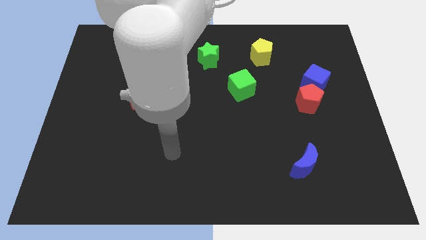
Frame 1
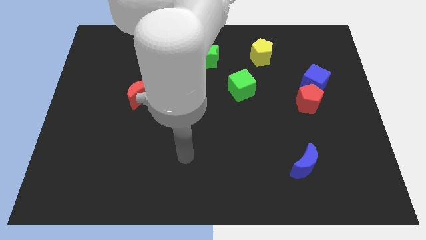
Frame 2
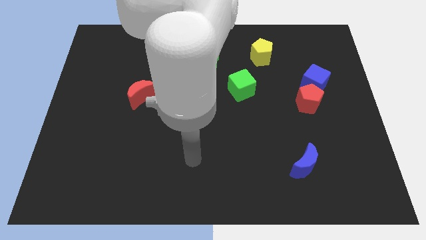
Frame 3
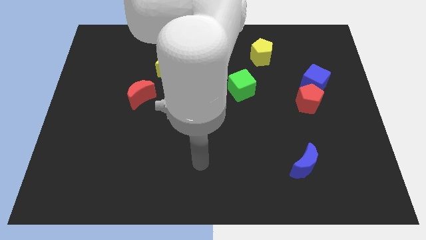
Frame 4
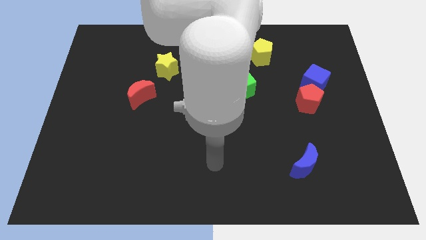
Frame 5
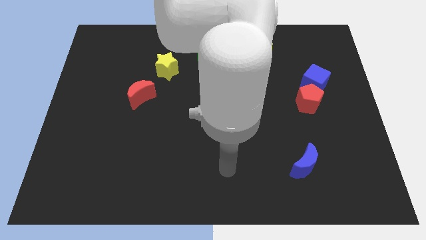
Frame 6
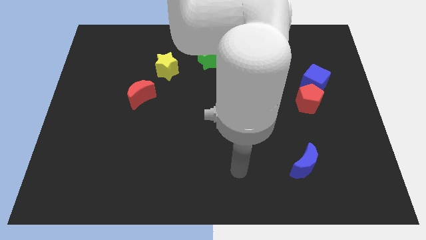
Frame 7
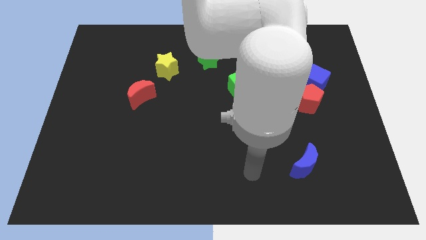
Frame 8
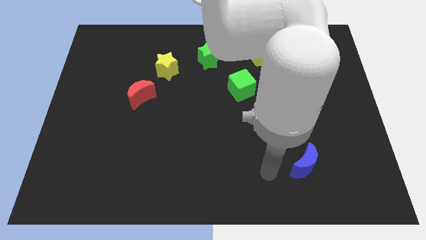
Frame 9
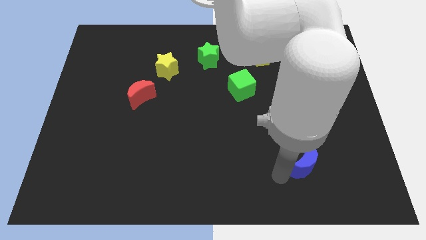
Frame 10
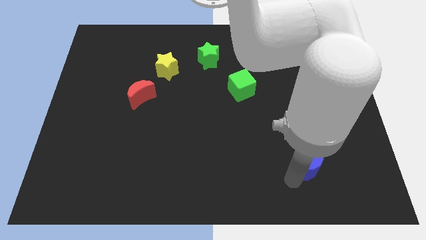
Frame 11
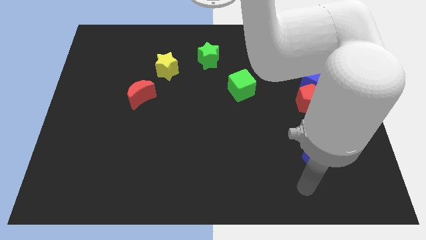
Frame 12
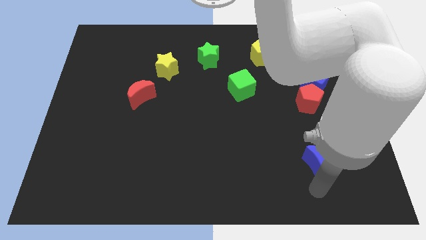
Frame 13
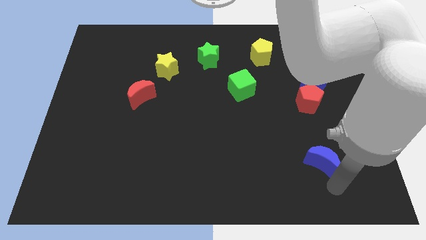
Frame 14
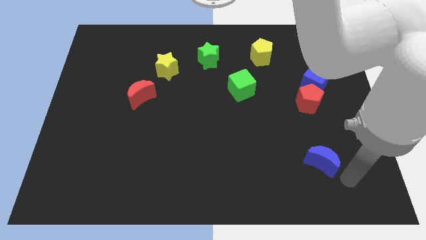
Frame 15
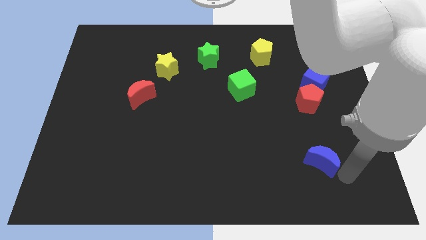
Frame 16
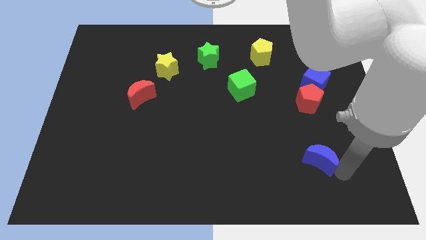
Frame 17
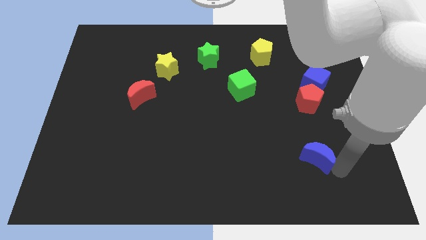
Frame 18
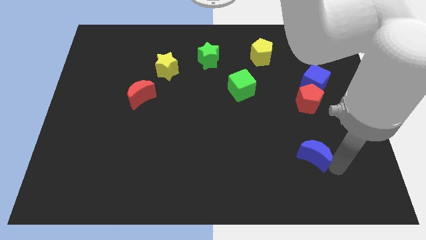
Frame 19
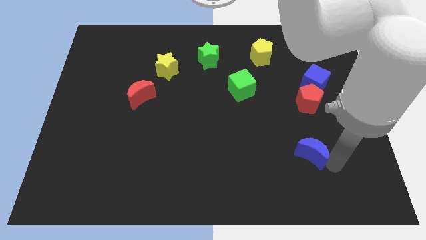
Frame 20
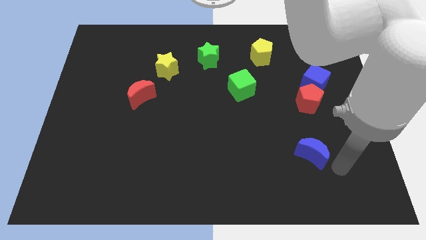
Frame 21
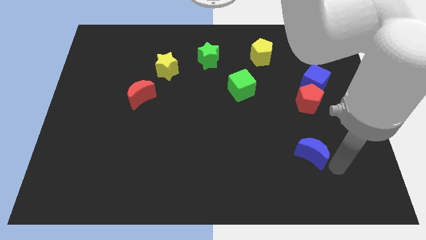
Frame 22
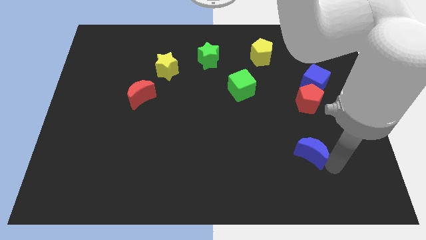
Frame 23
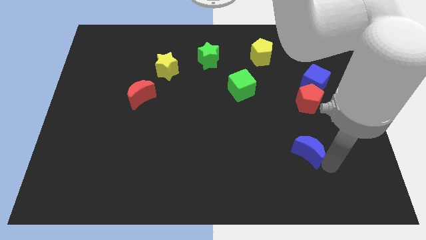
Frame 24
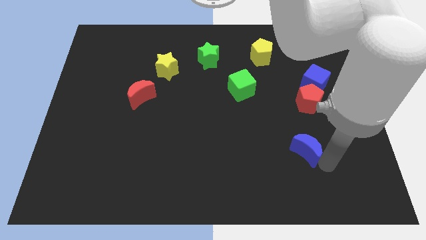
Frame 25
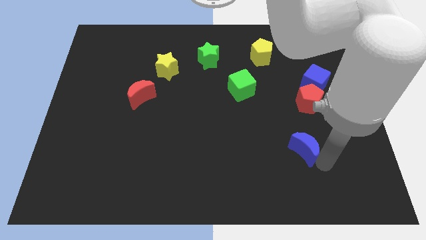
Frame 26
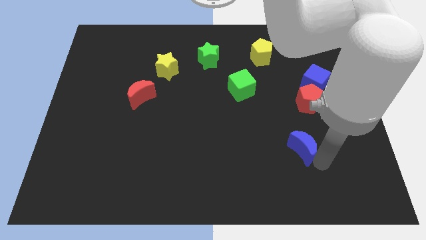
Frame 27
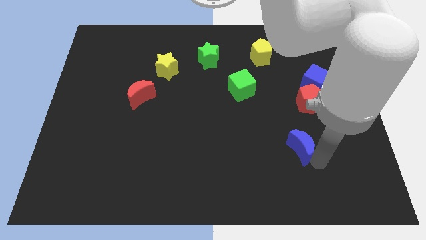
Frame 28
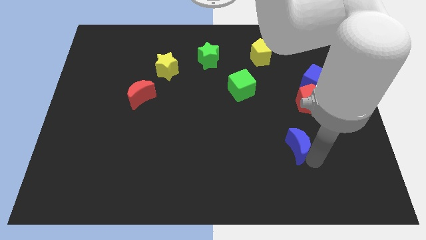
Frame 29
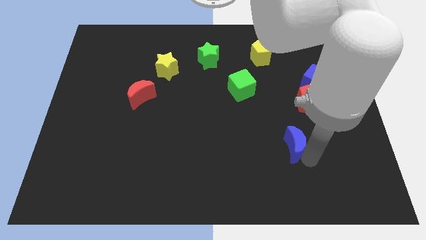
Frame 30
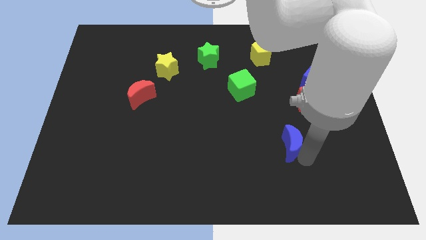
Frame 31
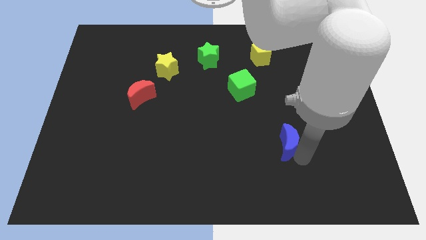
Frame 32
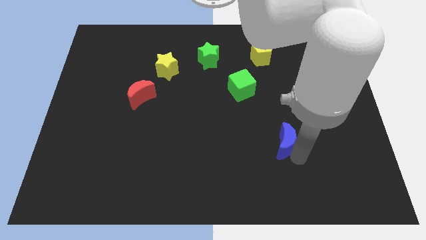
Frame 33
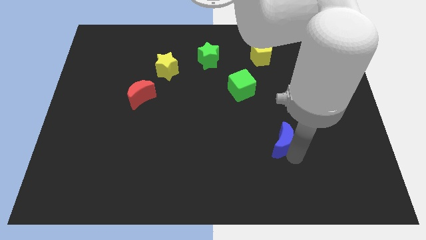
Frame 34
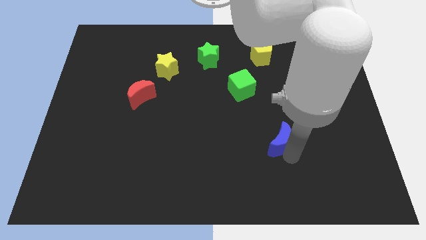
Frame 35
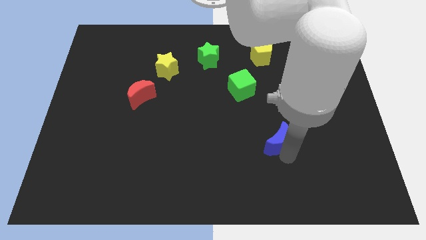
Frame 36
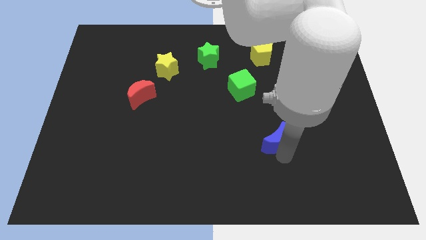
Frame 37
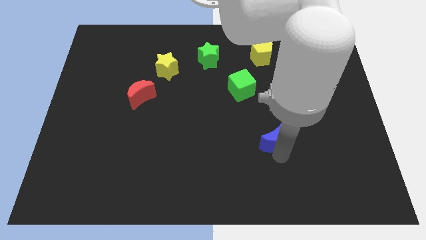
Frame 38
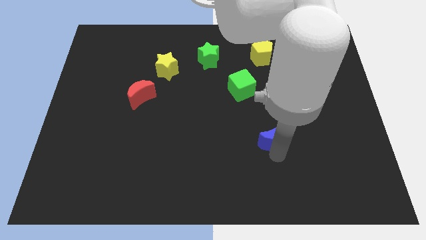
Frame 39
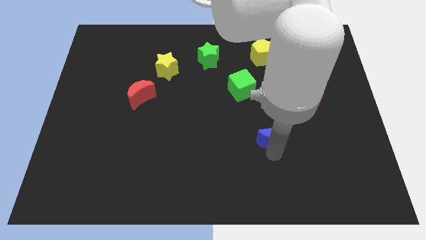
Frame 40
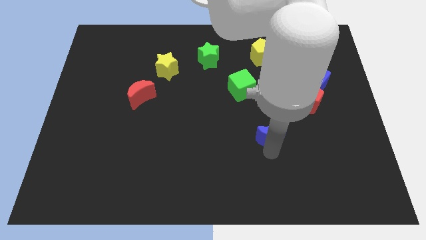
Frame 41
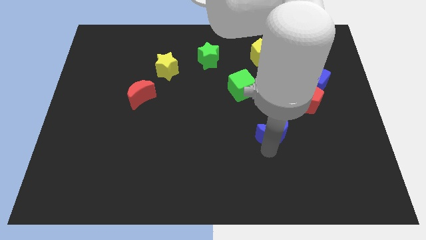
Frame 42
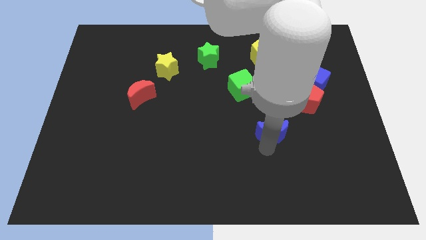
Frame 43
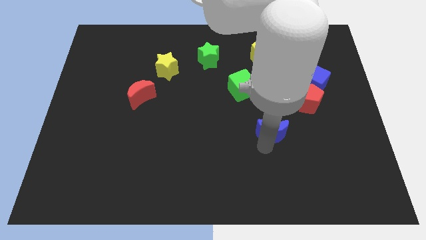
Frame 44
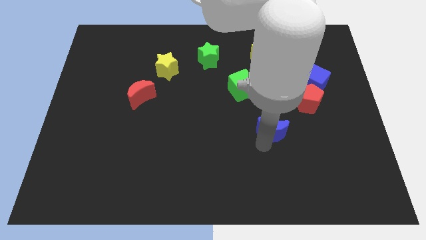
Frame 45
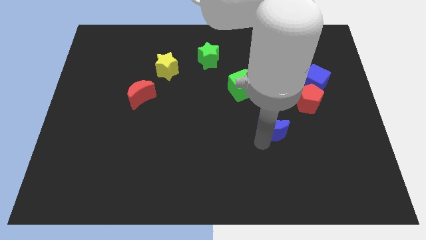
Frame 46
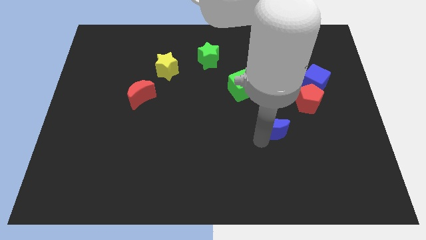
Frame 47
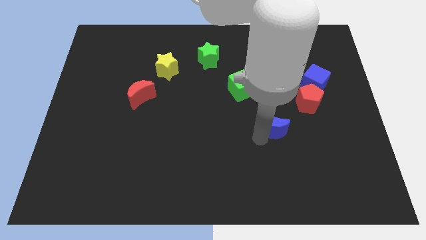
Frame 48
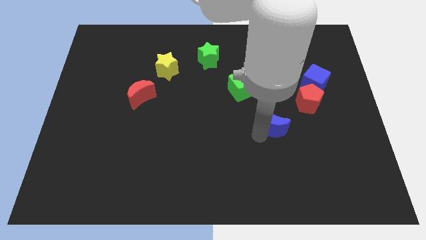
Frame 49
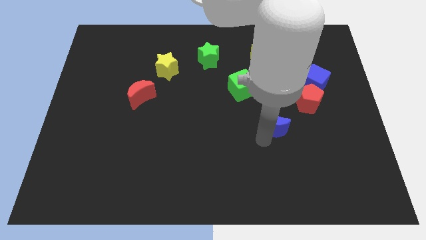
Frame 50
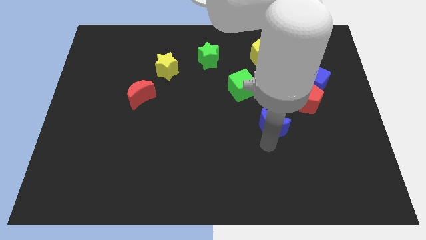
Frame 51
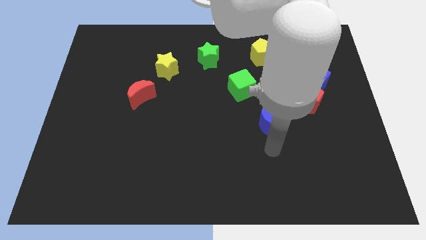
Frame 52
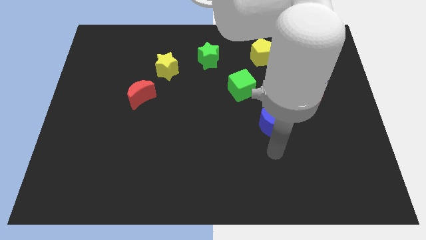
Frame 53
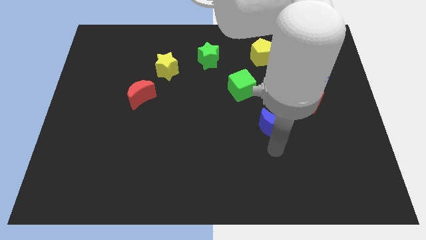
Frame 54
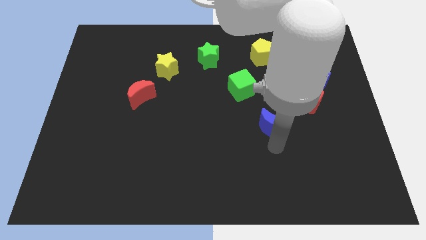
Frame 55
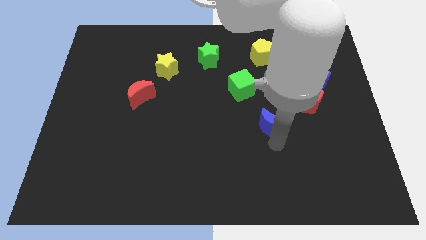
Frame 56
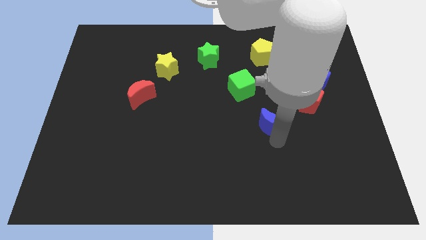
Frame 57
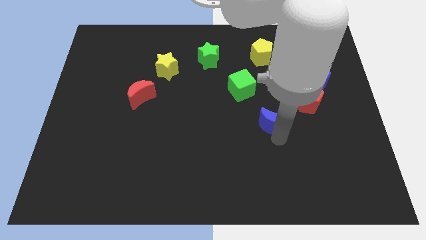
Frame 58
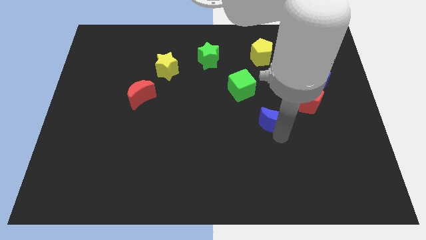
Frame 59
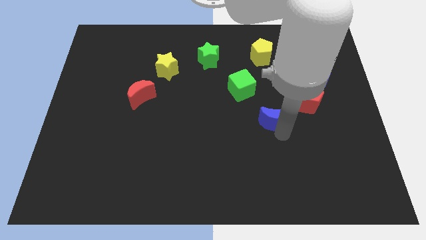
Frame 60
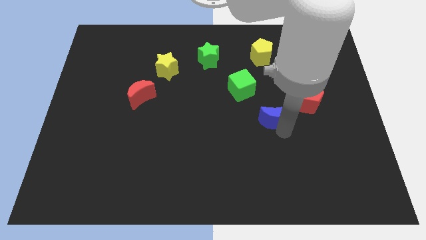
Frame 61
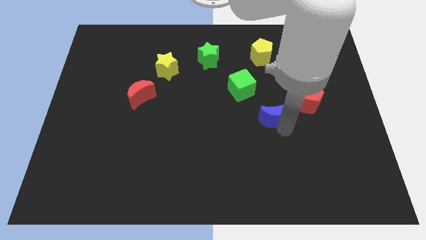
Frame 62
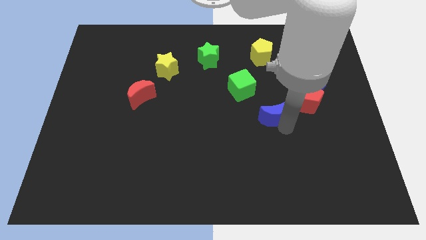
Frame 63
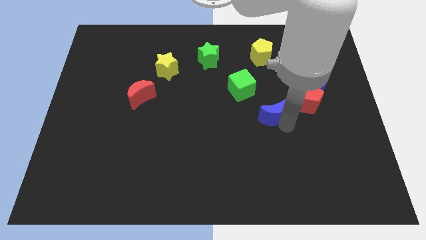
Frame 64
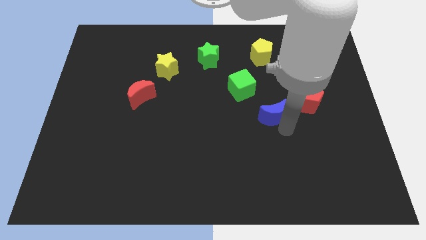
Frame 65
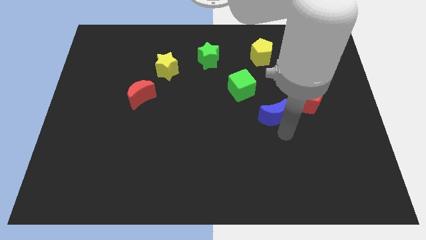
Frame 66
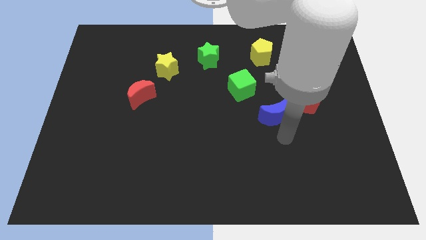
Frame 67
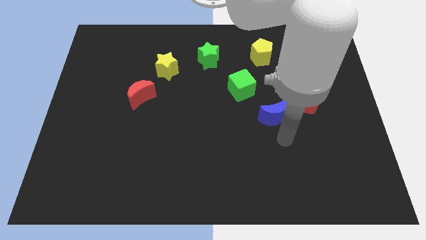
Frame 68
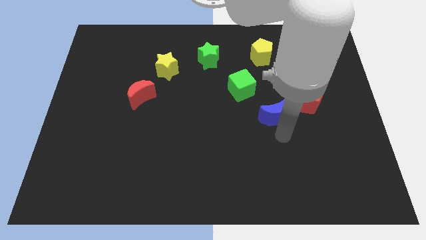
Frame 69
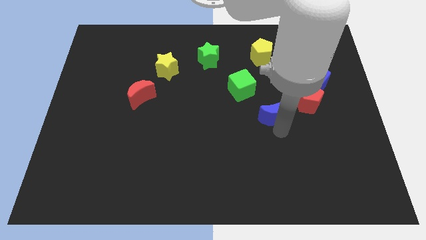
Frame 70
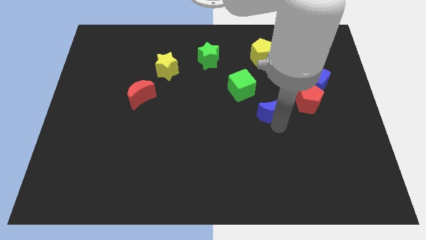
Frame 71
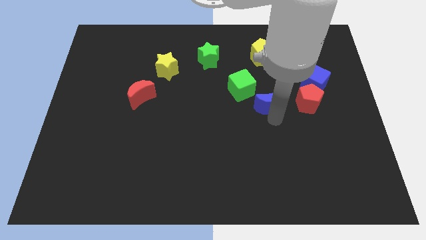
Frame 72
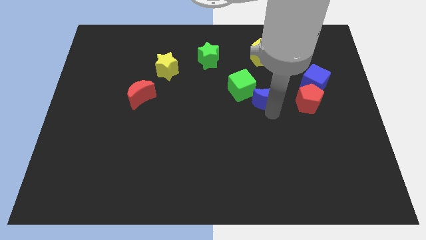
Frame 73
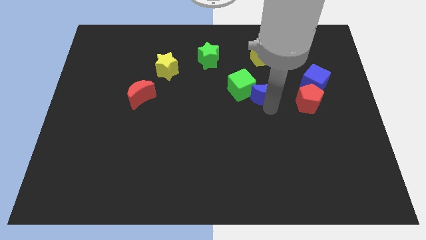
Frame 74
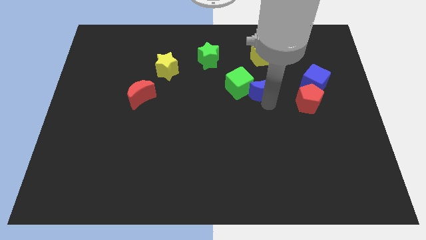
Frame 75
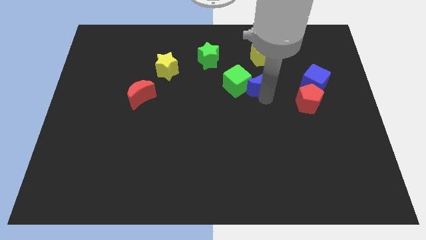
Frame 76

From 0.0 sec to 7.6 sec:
move the blue moon to the top right of the green cube

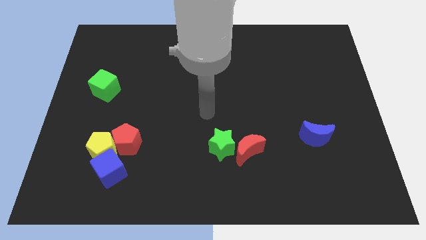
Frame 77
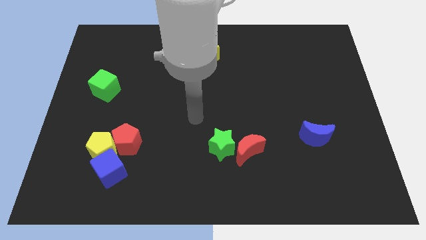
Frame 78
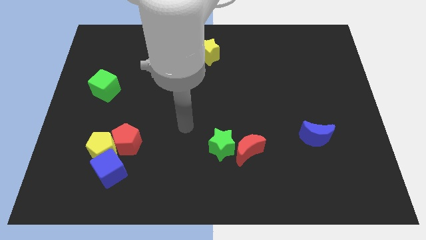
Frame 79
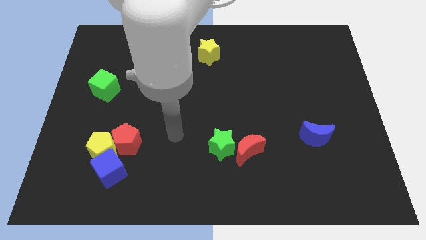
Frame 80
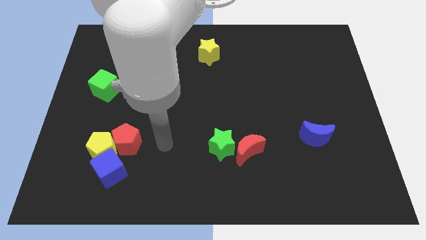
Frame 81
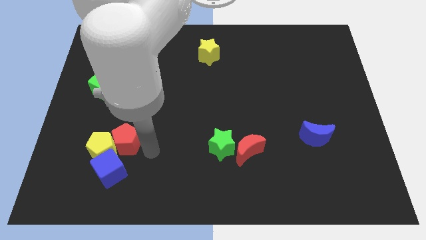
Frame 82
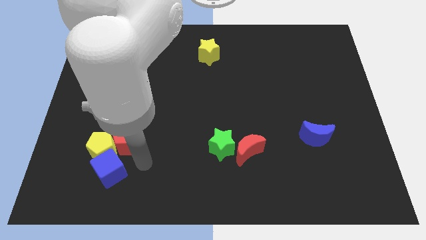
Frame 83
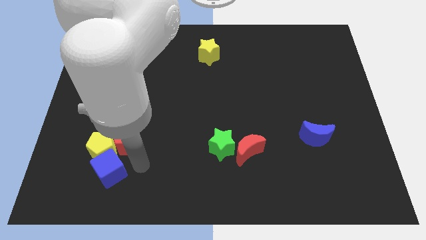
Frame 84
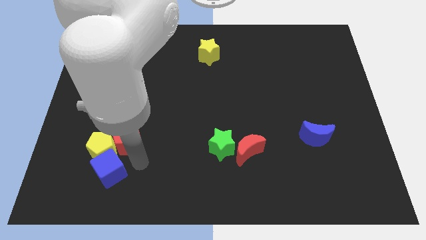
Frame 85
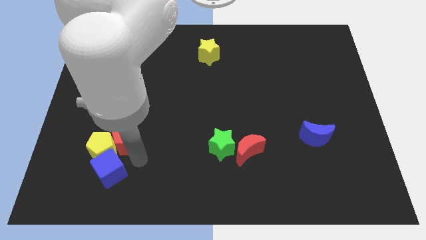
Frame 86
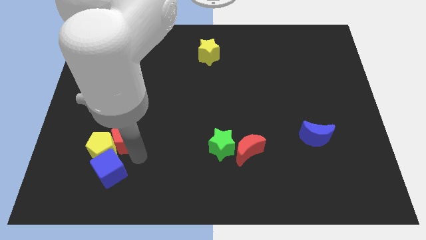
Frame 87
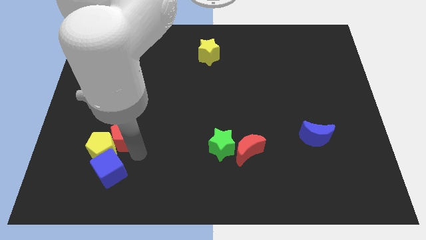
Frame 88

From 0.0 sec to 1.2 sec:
slide the red pentagon to the top of the yellow pentagon
